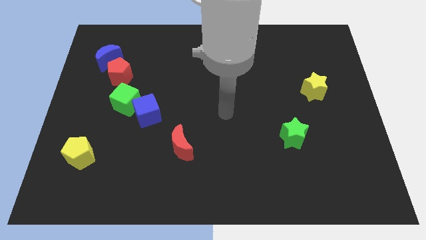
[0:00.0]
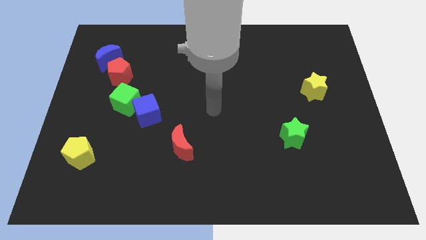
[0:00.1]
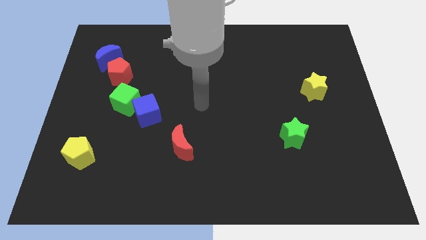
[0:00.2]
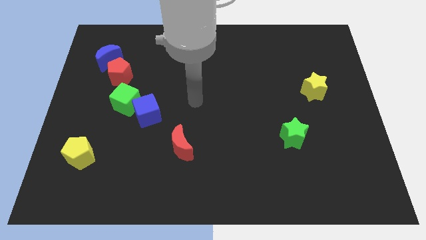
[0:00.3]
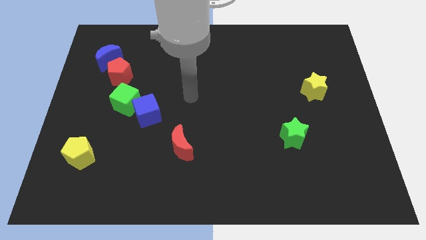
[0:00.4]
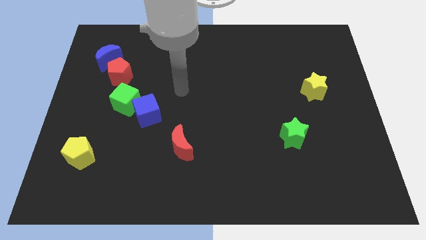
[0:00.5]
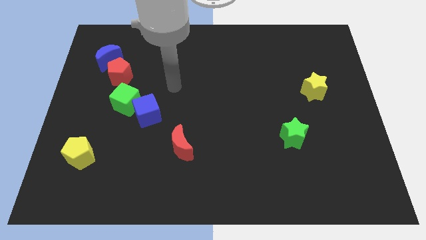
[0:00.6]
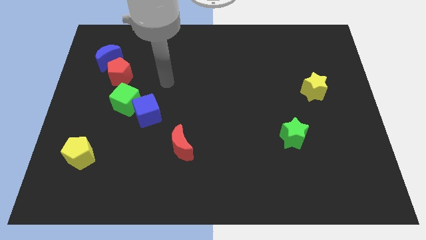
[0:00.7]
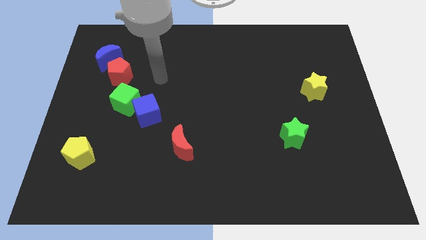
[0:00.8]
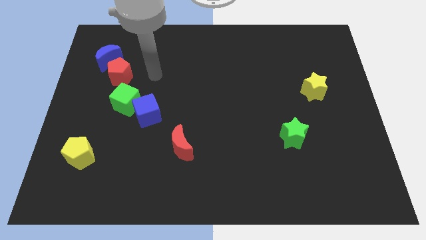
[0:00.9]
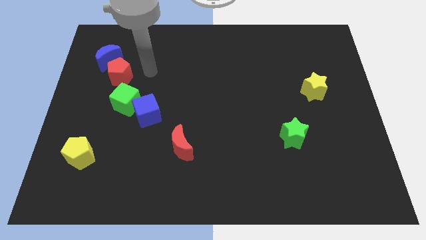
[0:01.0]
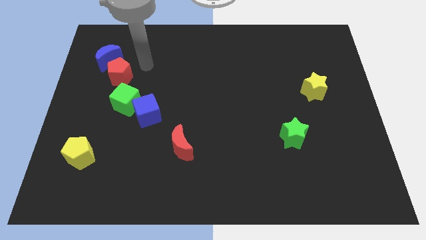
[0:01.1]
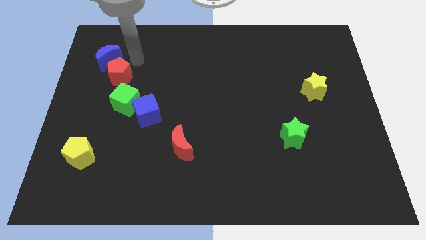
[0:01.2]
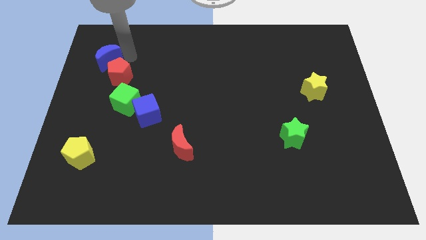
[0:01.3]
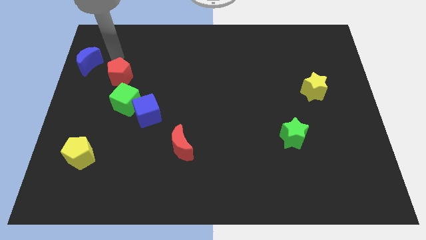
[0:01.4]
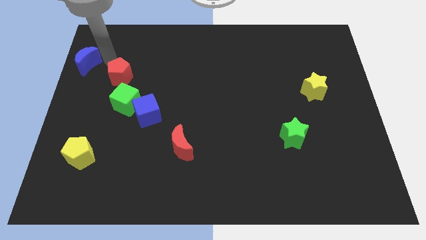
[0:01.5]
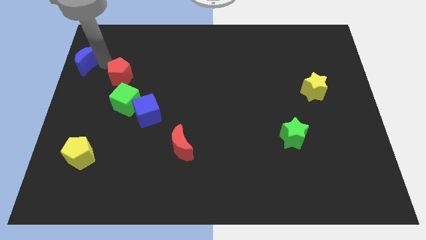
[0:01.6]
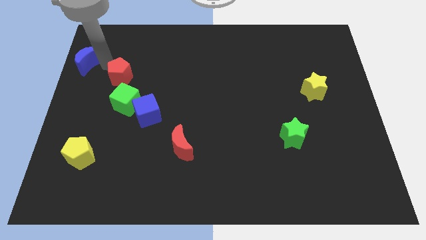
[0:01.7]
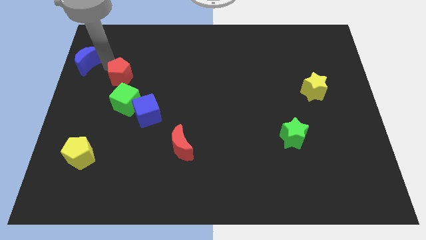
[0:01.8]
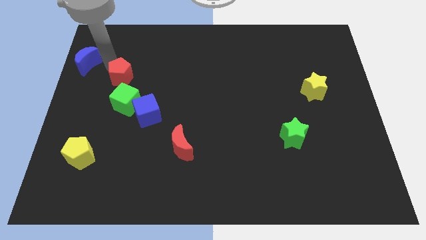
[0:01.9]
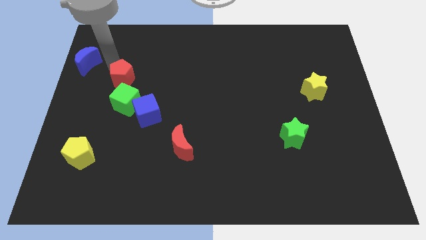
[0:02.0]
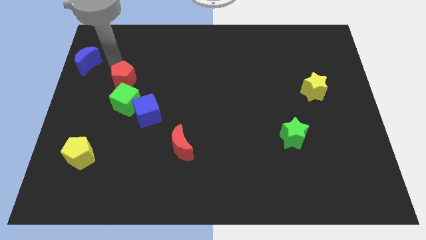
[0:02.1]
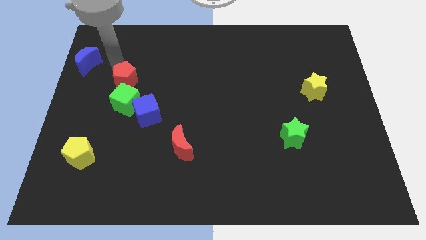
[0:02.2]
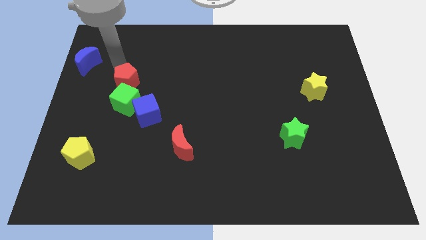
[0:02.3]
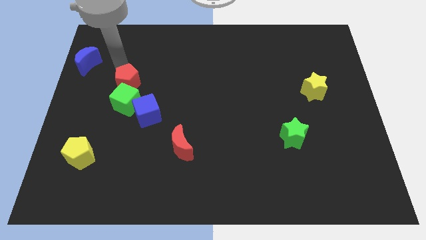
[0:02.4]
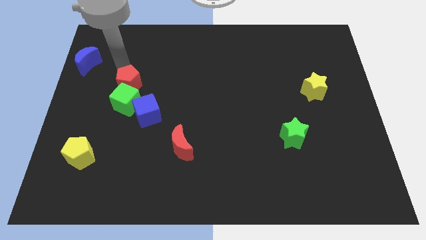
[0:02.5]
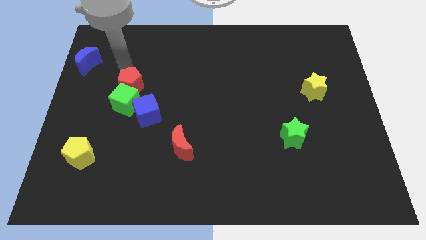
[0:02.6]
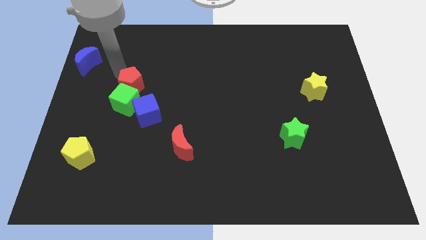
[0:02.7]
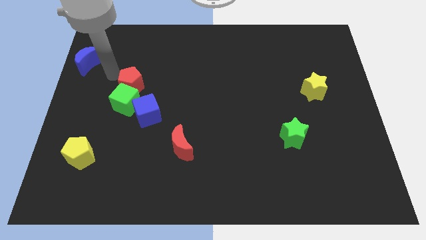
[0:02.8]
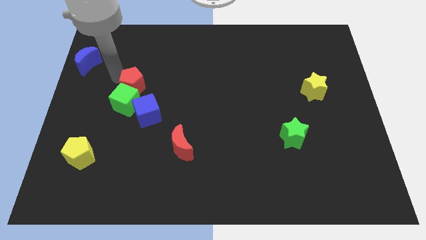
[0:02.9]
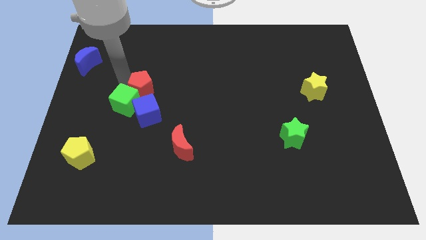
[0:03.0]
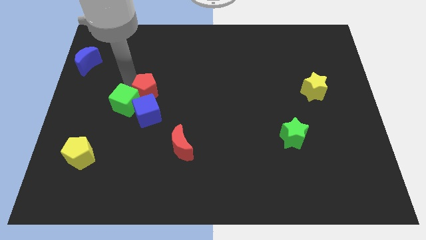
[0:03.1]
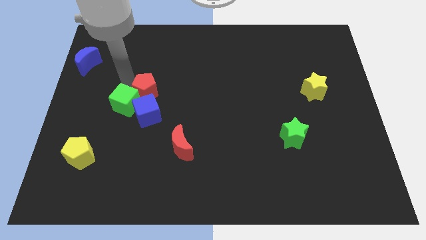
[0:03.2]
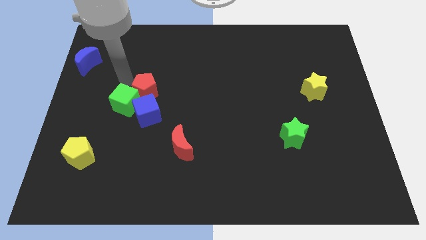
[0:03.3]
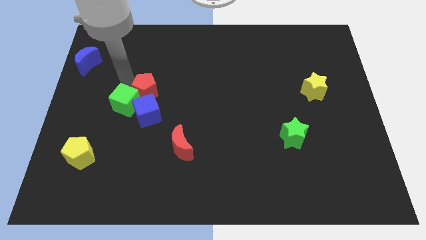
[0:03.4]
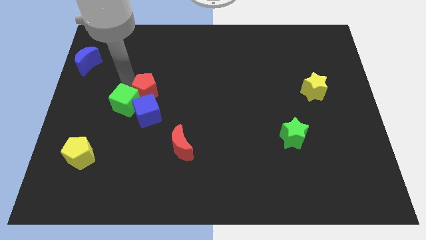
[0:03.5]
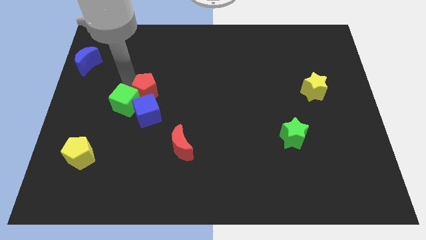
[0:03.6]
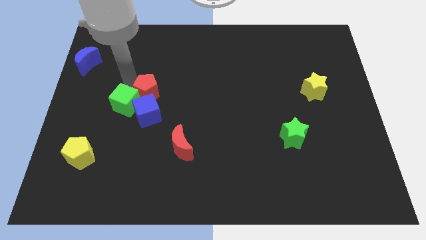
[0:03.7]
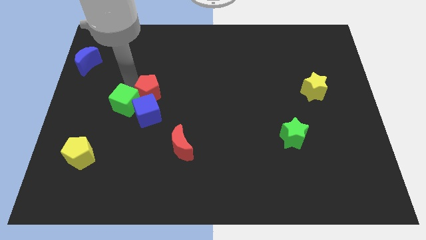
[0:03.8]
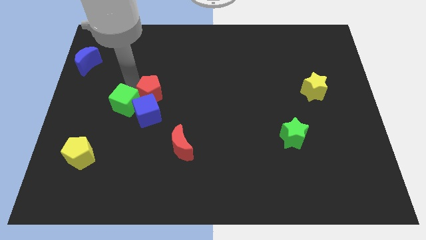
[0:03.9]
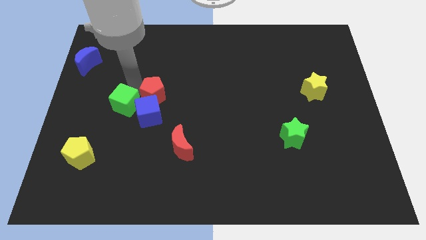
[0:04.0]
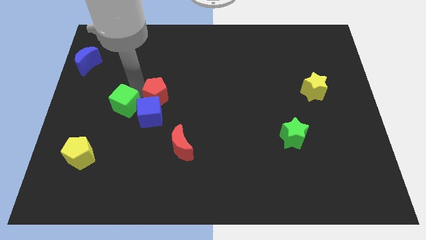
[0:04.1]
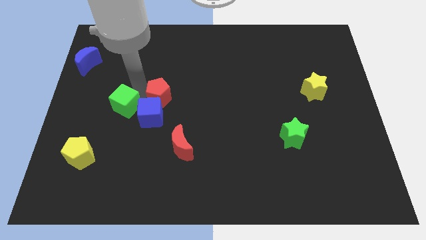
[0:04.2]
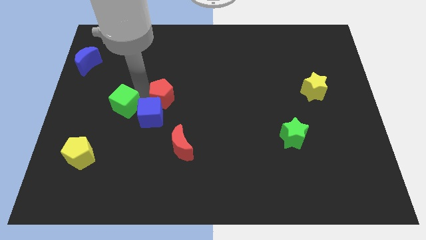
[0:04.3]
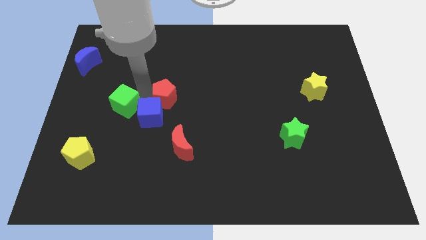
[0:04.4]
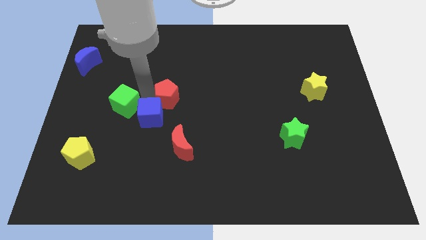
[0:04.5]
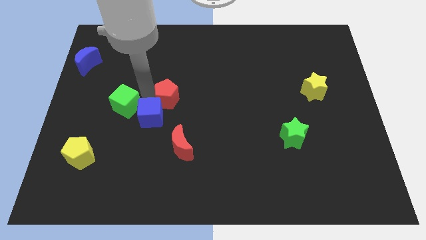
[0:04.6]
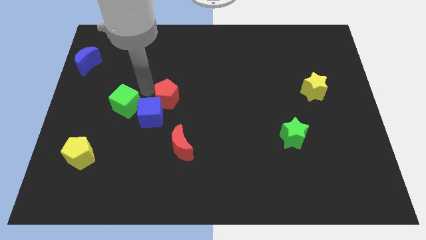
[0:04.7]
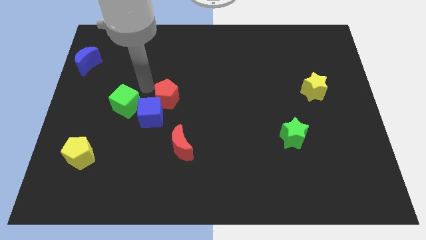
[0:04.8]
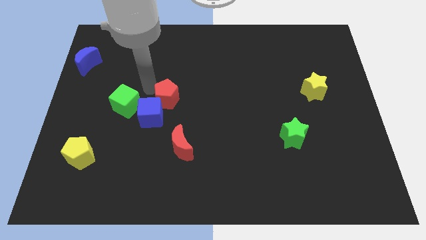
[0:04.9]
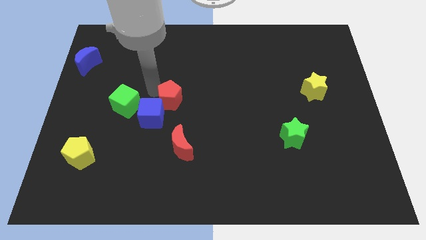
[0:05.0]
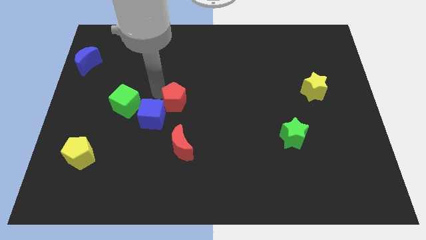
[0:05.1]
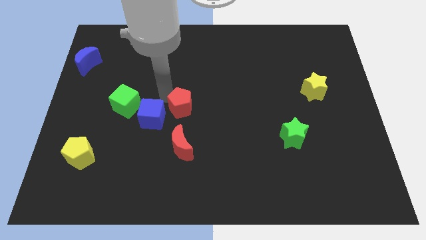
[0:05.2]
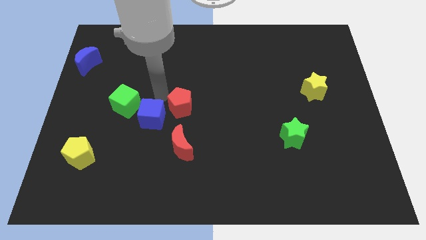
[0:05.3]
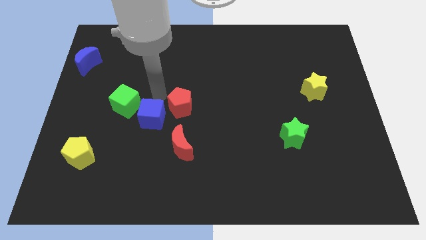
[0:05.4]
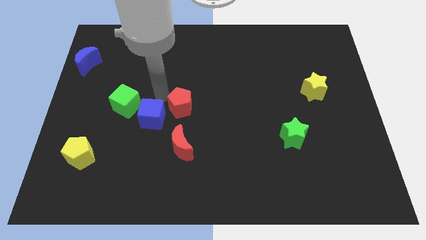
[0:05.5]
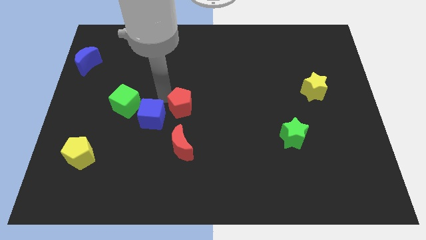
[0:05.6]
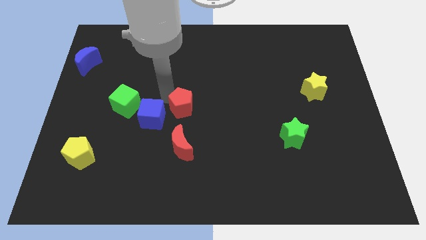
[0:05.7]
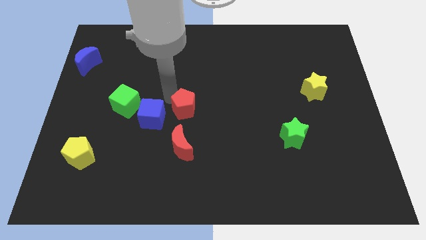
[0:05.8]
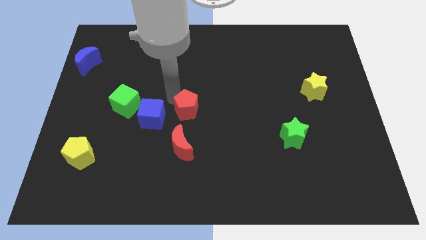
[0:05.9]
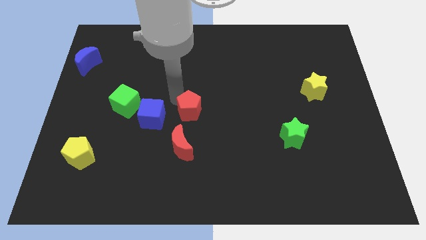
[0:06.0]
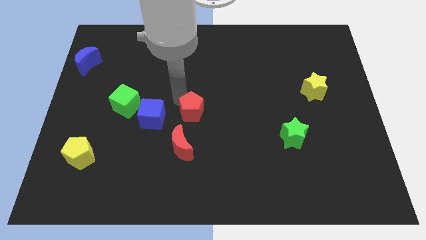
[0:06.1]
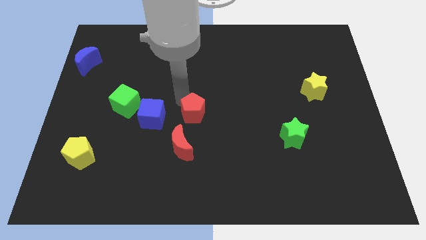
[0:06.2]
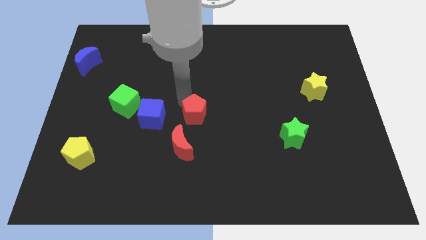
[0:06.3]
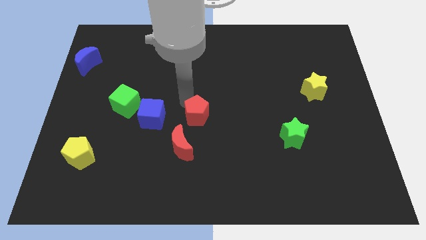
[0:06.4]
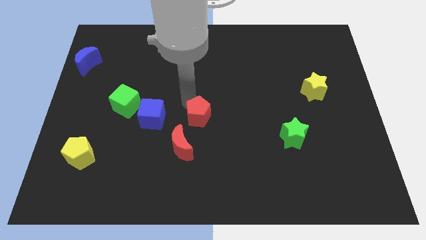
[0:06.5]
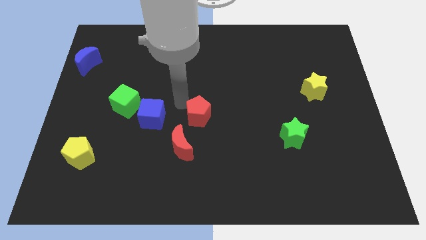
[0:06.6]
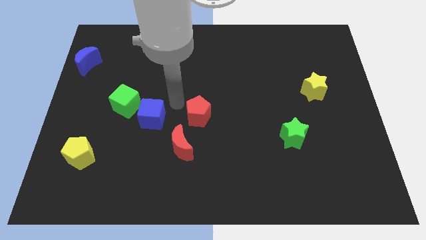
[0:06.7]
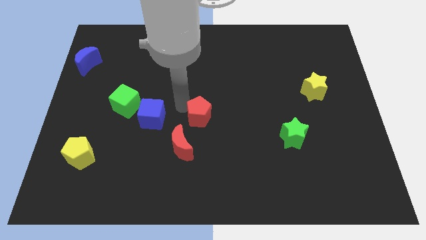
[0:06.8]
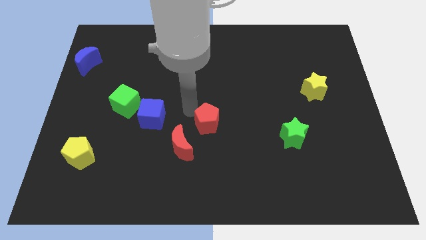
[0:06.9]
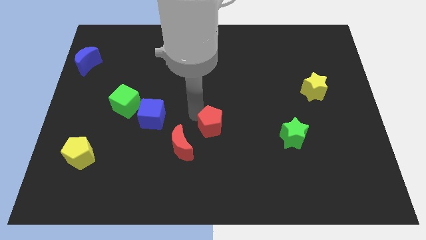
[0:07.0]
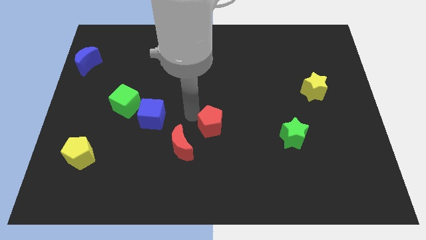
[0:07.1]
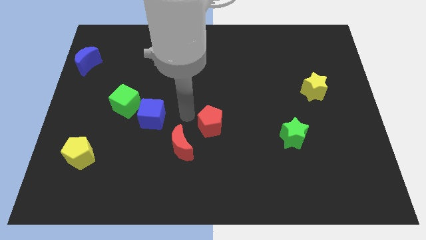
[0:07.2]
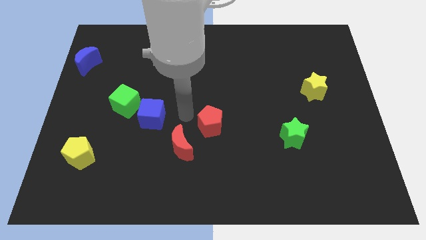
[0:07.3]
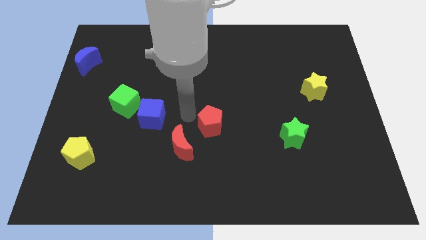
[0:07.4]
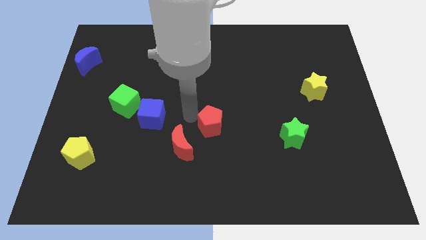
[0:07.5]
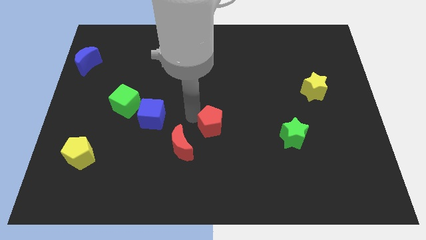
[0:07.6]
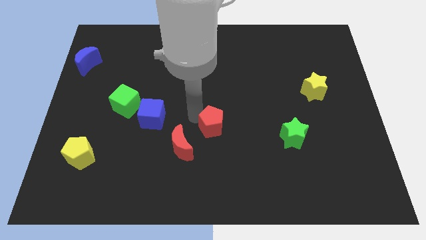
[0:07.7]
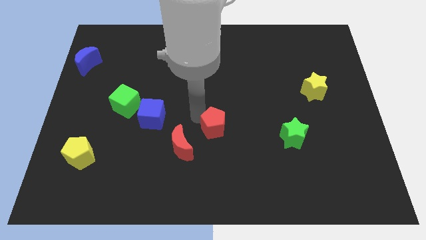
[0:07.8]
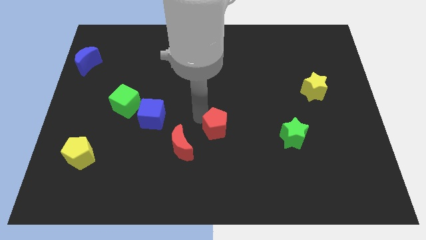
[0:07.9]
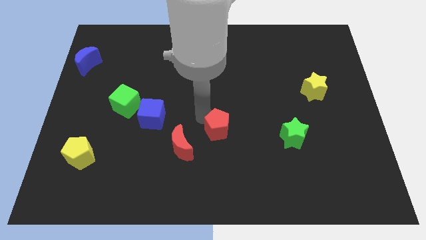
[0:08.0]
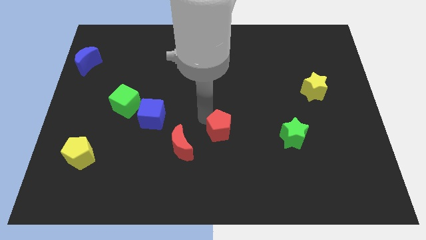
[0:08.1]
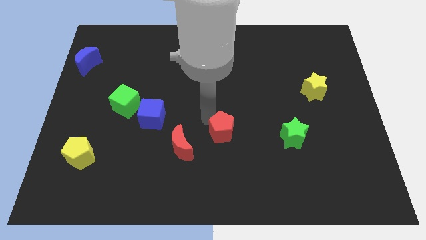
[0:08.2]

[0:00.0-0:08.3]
push the red pentagon left of the green star
